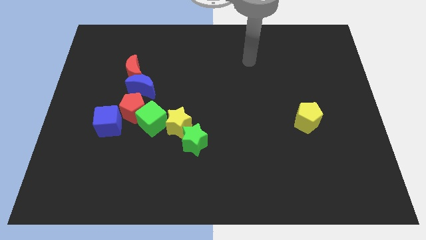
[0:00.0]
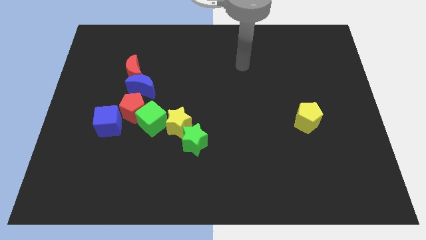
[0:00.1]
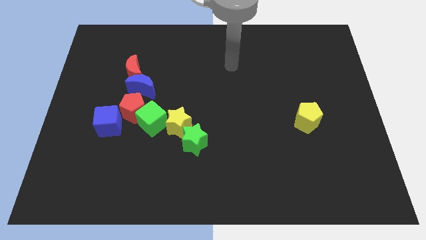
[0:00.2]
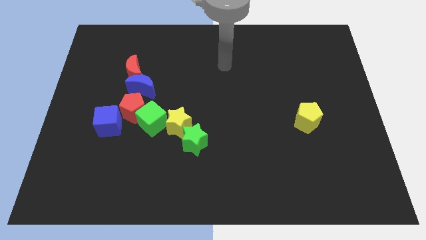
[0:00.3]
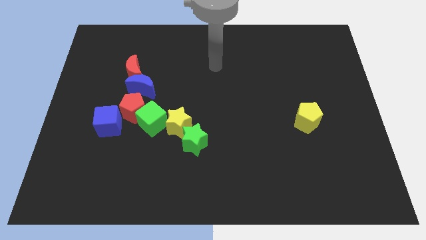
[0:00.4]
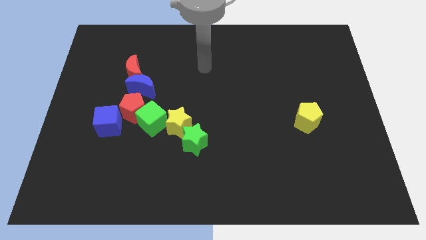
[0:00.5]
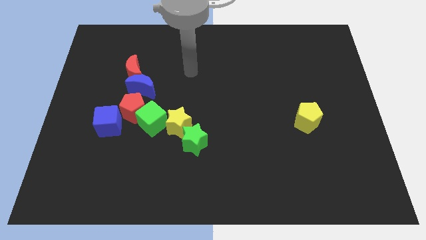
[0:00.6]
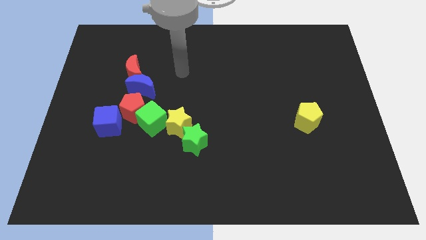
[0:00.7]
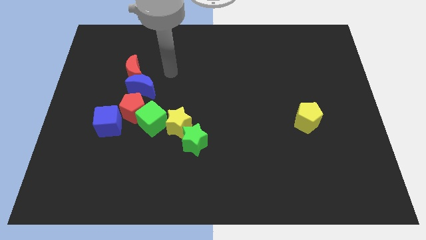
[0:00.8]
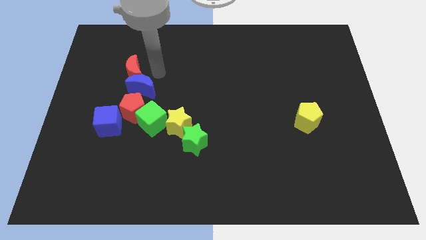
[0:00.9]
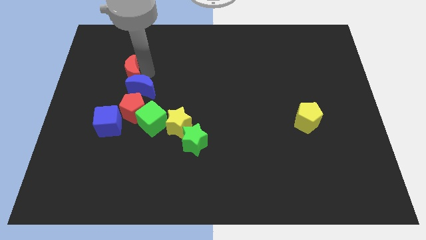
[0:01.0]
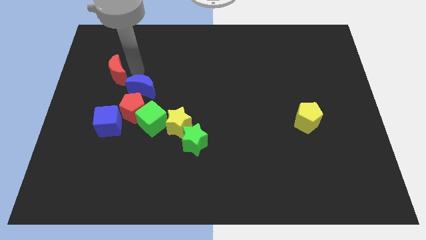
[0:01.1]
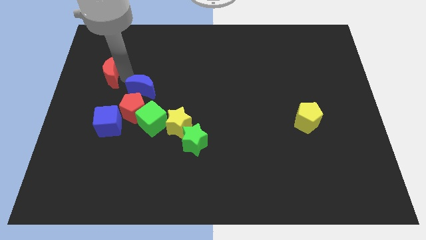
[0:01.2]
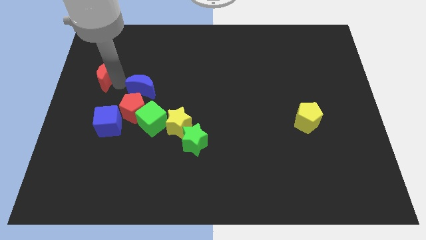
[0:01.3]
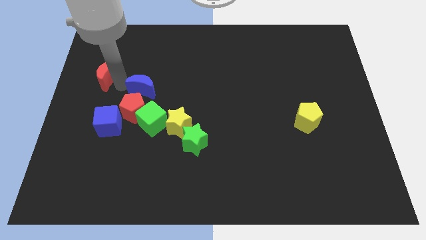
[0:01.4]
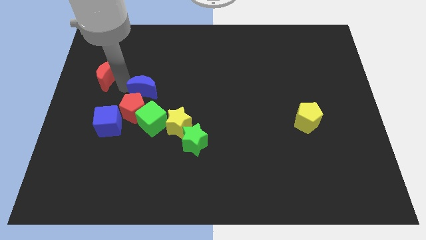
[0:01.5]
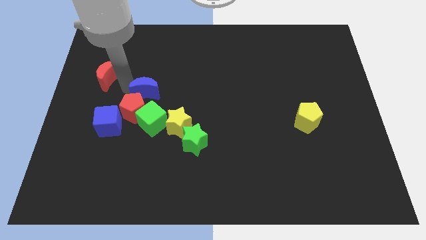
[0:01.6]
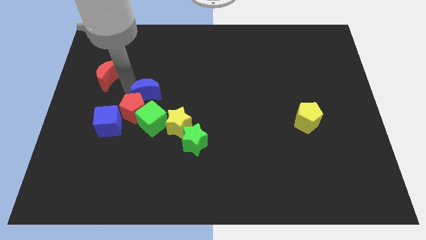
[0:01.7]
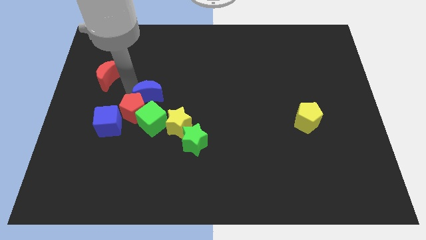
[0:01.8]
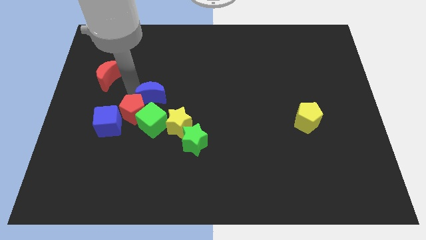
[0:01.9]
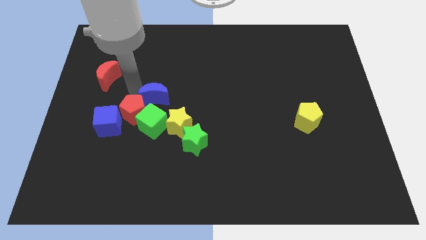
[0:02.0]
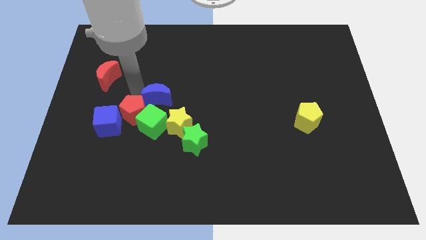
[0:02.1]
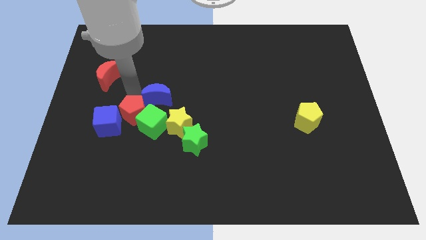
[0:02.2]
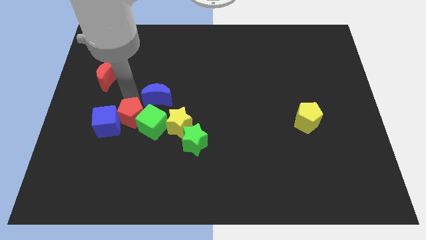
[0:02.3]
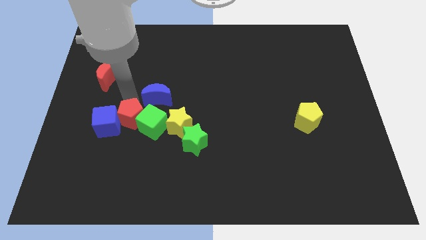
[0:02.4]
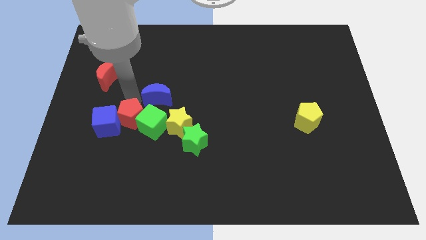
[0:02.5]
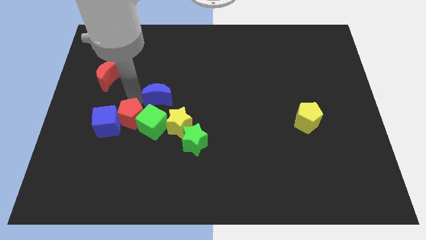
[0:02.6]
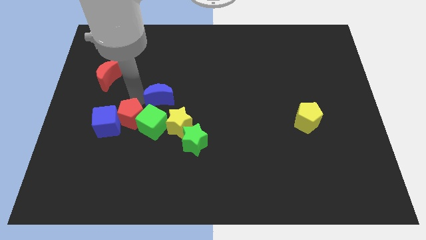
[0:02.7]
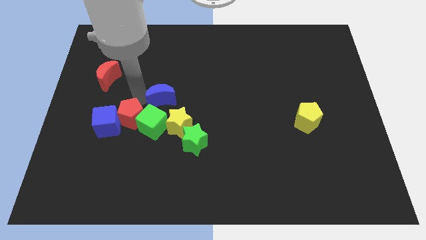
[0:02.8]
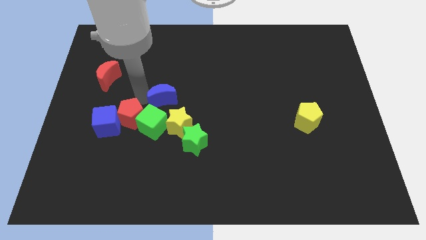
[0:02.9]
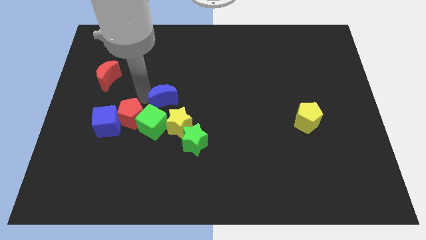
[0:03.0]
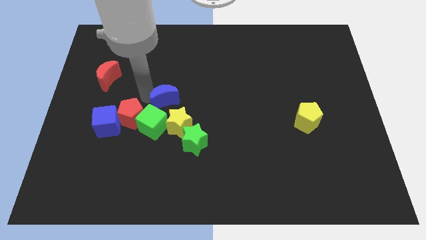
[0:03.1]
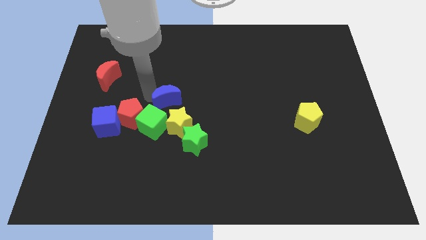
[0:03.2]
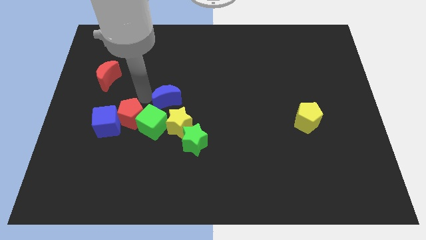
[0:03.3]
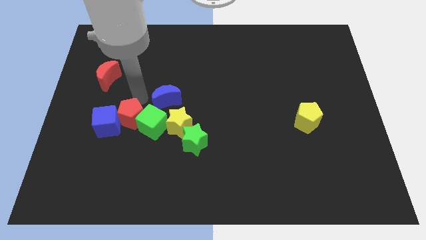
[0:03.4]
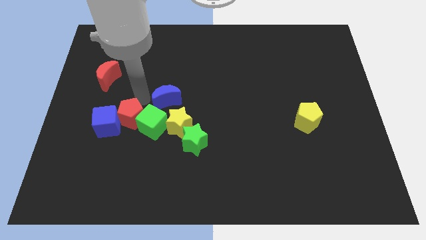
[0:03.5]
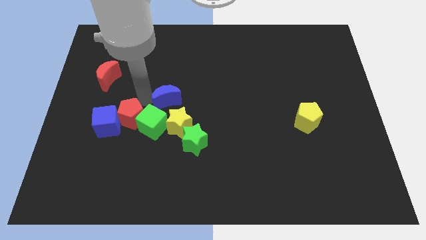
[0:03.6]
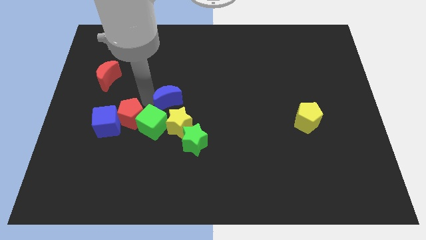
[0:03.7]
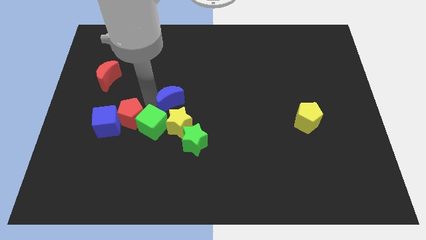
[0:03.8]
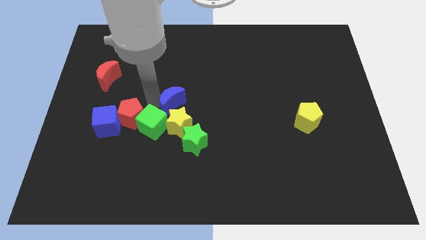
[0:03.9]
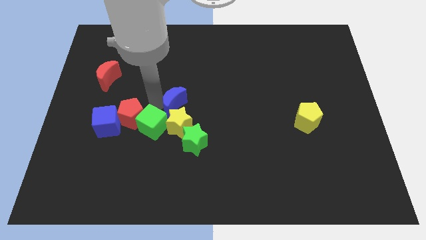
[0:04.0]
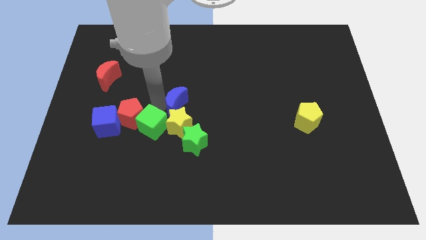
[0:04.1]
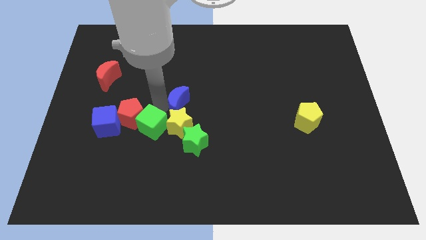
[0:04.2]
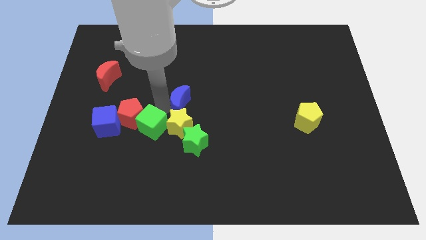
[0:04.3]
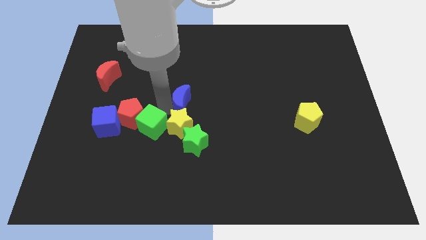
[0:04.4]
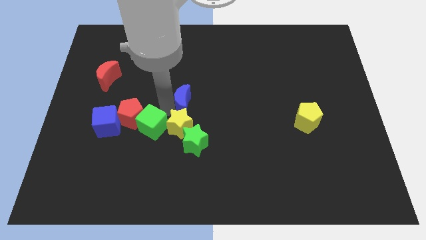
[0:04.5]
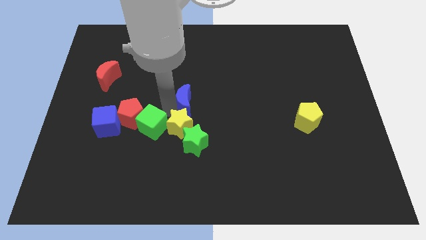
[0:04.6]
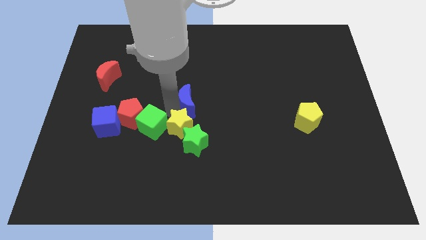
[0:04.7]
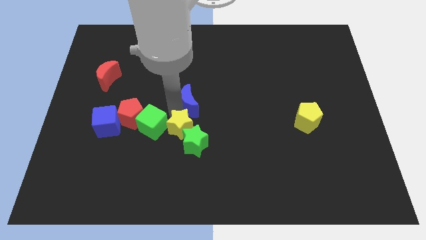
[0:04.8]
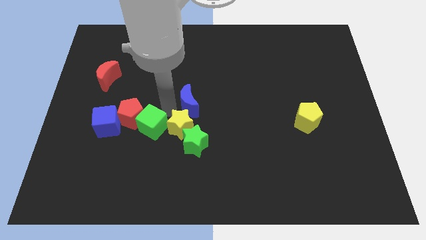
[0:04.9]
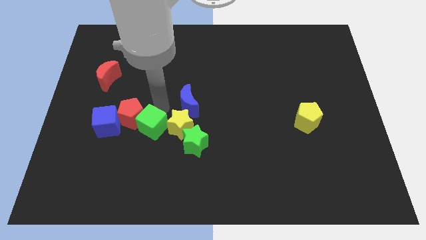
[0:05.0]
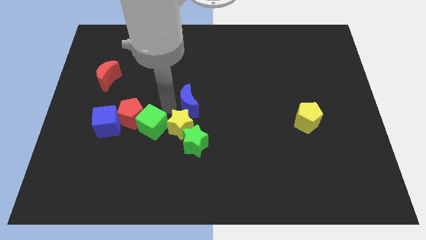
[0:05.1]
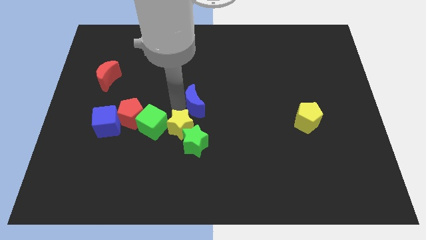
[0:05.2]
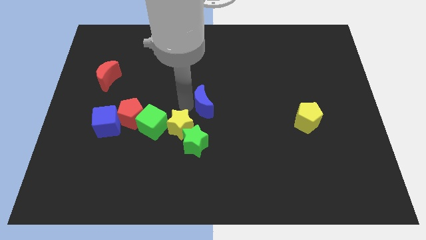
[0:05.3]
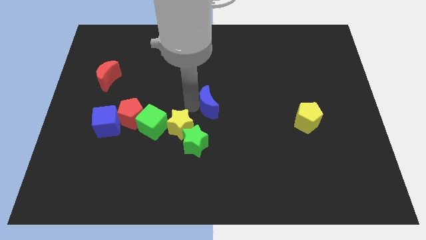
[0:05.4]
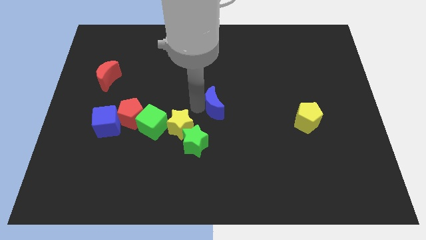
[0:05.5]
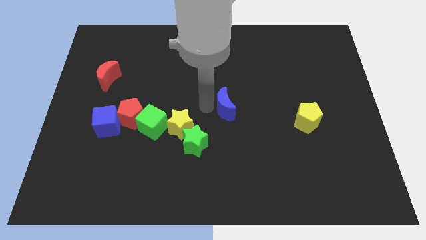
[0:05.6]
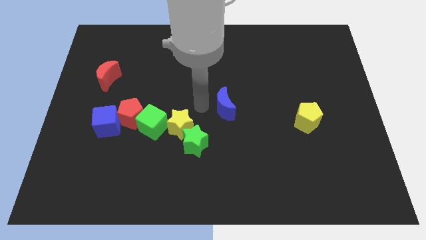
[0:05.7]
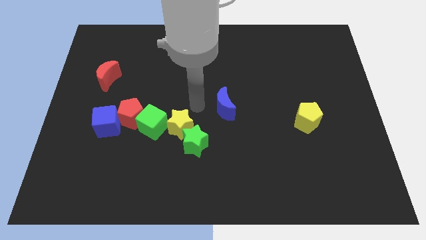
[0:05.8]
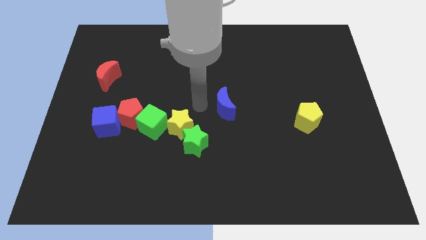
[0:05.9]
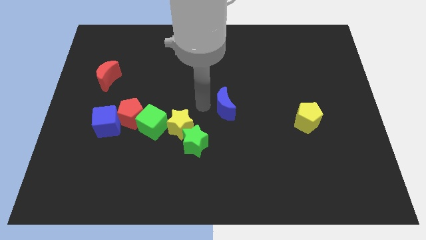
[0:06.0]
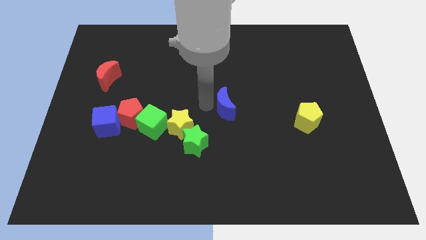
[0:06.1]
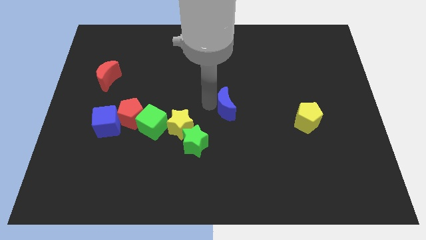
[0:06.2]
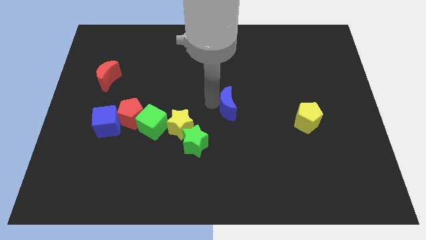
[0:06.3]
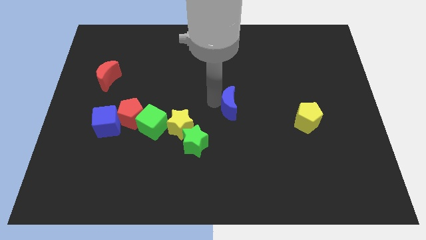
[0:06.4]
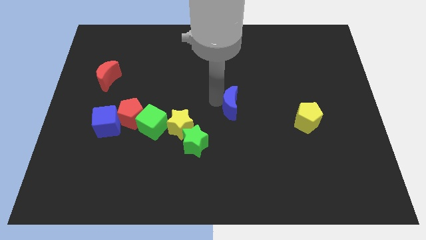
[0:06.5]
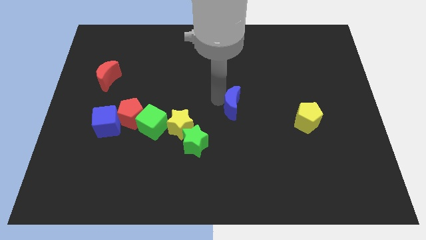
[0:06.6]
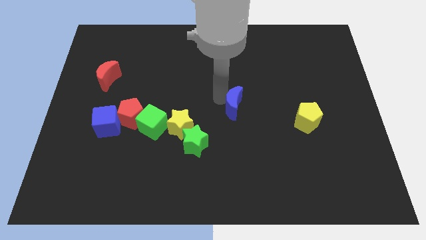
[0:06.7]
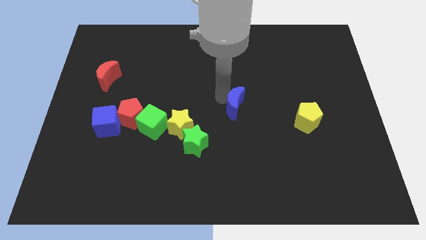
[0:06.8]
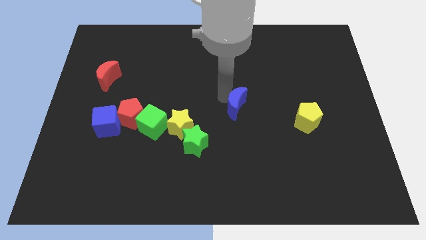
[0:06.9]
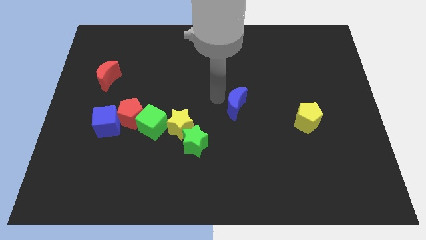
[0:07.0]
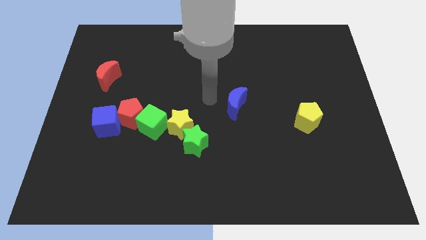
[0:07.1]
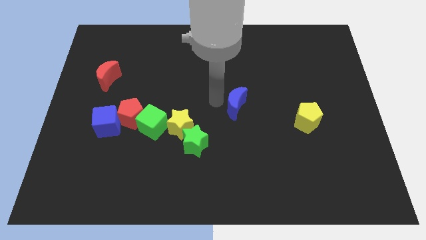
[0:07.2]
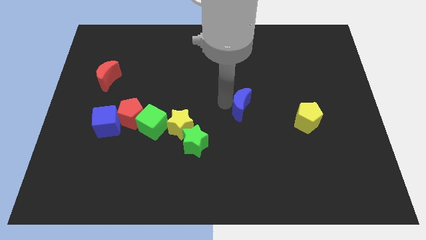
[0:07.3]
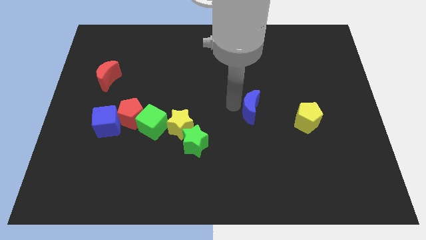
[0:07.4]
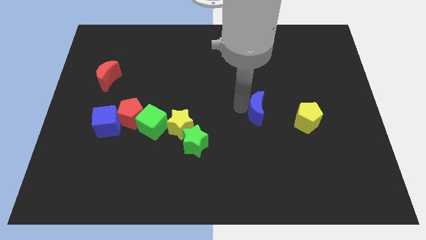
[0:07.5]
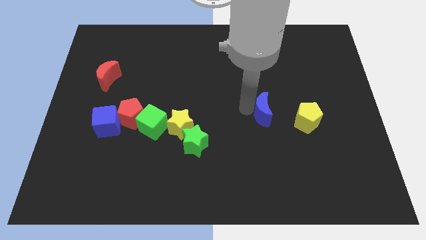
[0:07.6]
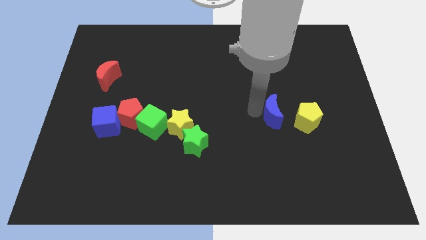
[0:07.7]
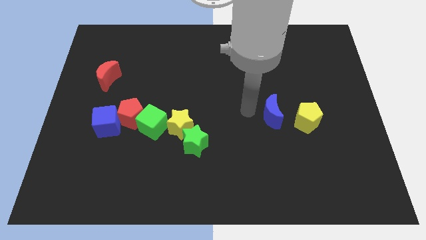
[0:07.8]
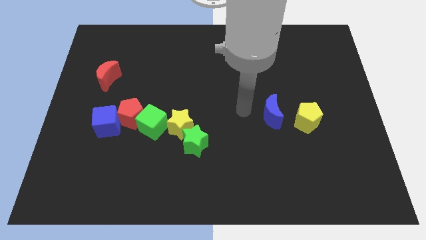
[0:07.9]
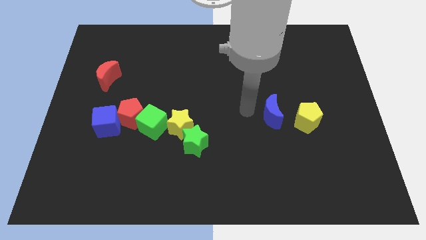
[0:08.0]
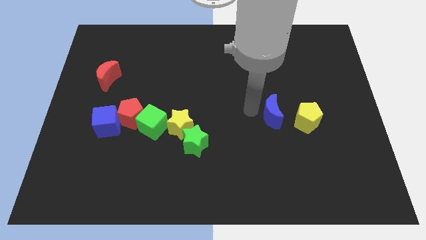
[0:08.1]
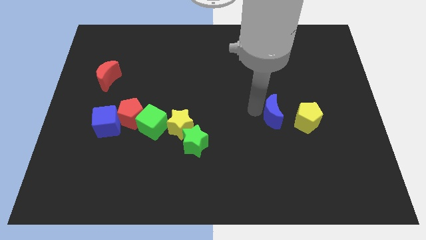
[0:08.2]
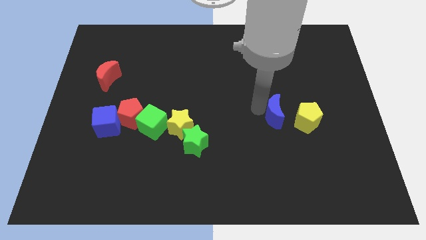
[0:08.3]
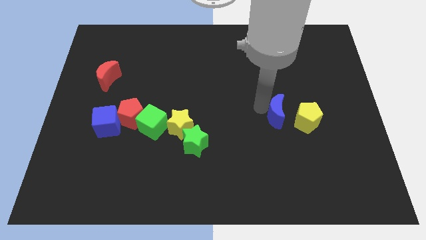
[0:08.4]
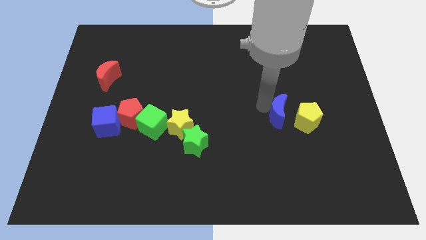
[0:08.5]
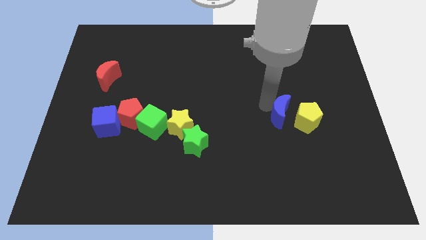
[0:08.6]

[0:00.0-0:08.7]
push the blue moon to the yellow pentagon
